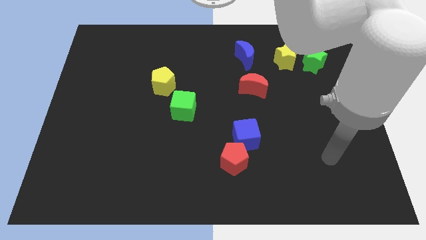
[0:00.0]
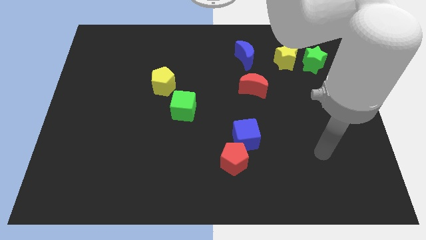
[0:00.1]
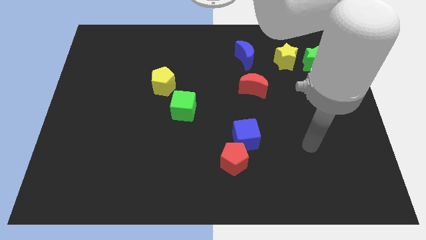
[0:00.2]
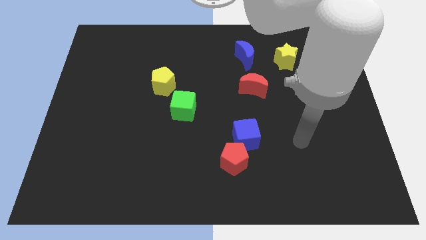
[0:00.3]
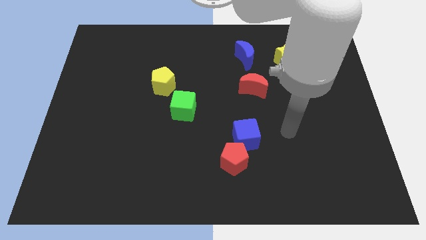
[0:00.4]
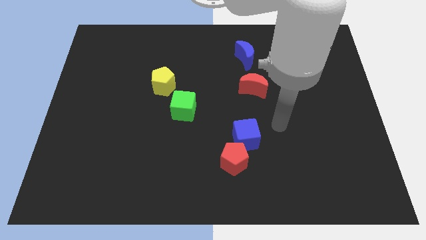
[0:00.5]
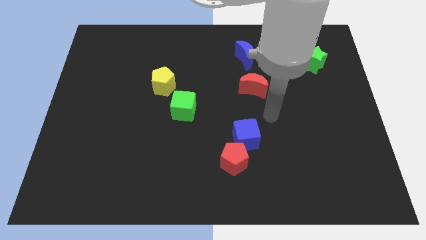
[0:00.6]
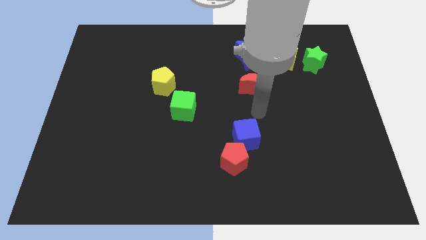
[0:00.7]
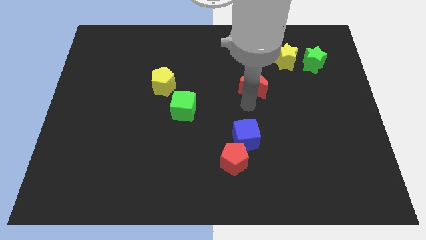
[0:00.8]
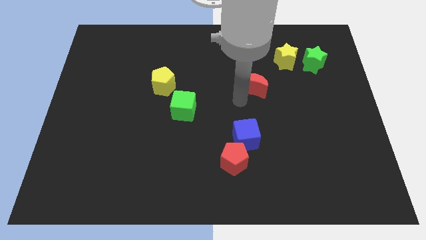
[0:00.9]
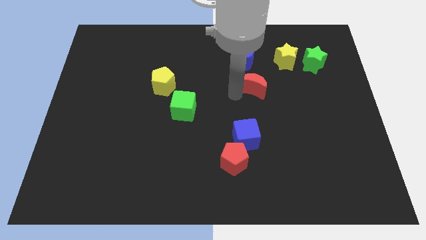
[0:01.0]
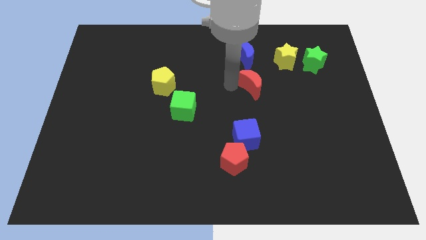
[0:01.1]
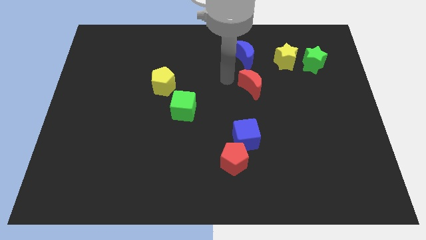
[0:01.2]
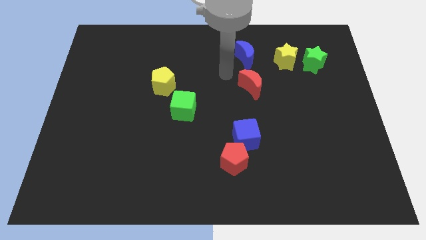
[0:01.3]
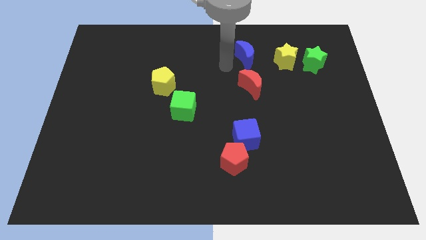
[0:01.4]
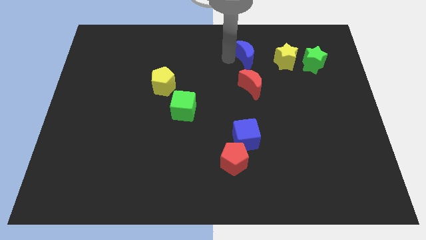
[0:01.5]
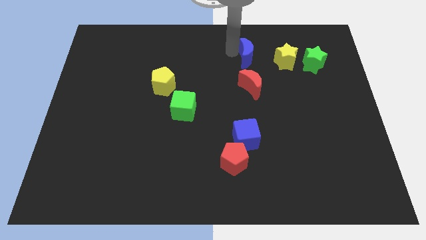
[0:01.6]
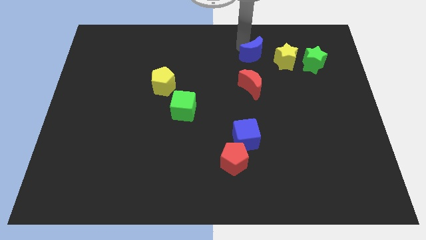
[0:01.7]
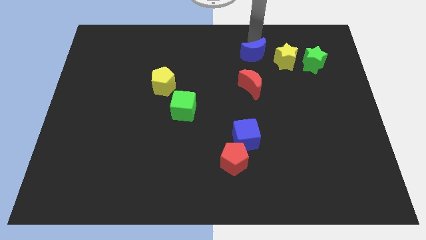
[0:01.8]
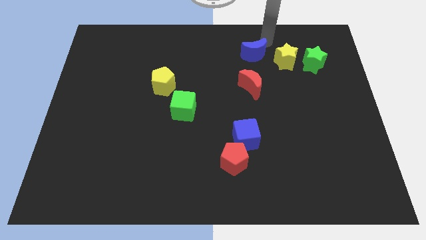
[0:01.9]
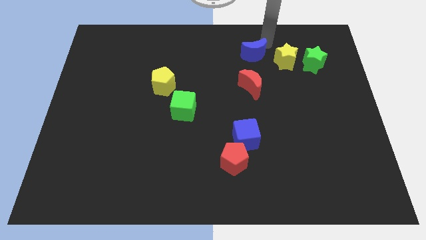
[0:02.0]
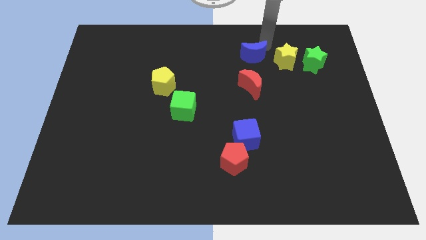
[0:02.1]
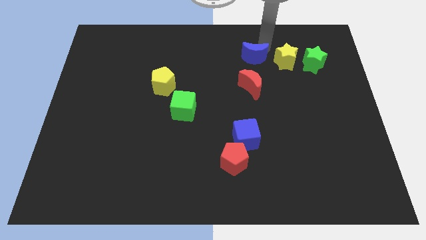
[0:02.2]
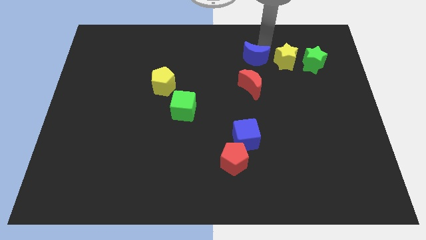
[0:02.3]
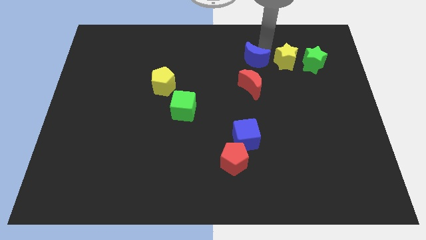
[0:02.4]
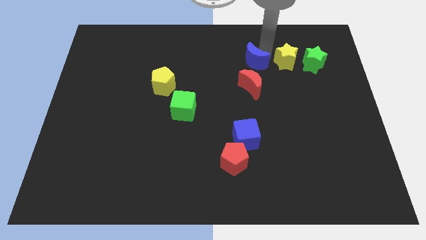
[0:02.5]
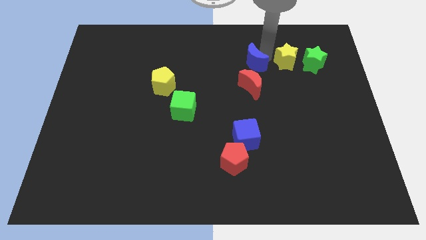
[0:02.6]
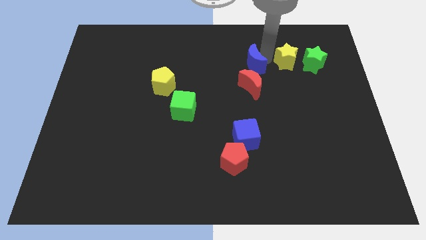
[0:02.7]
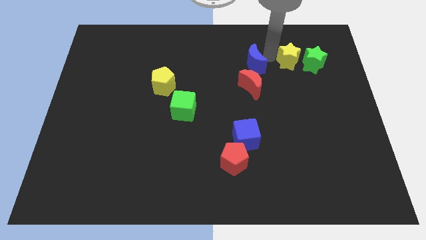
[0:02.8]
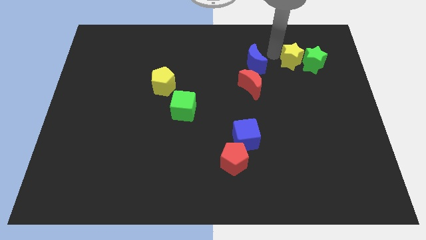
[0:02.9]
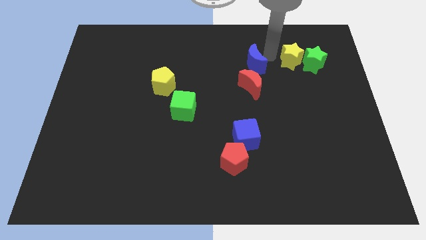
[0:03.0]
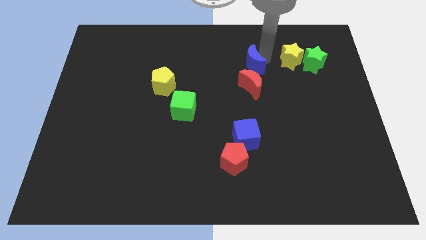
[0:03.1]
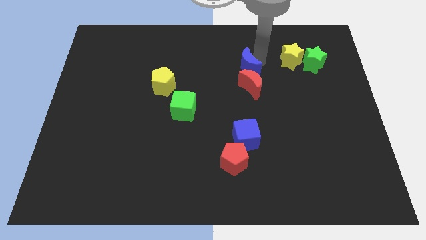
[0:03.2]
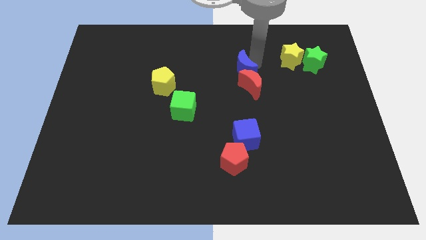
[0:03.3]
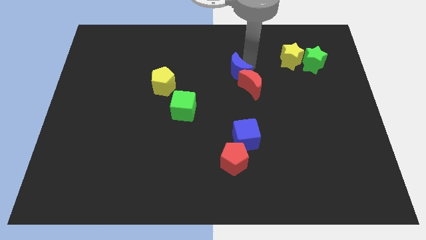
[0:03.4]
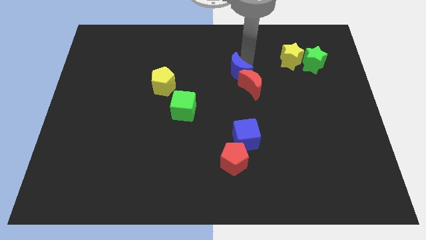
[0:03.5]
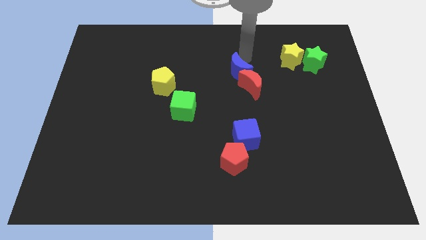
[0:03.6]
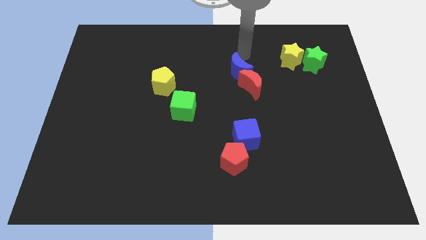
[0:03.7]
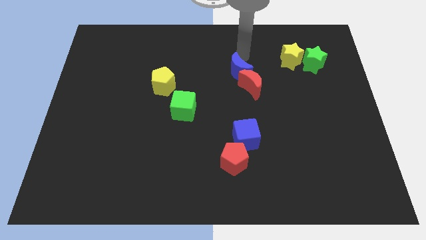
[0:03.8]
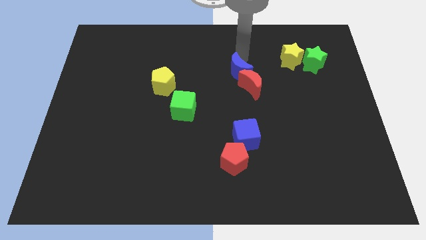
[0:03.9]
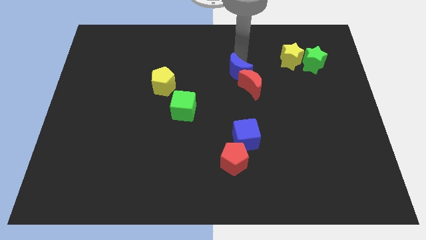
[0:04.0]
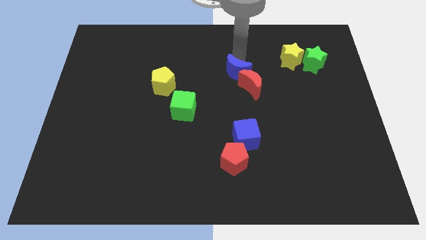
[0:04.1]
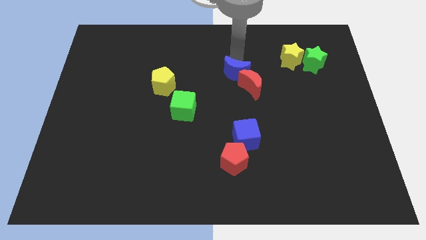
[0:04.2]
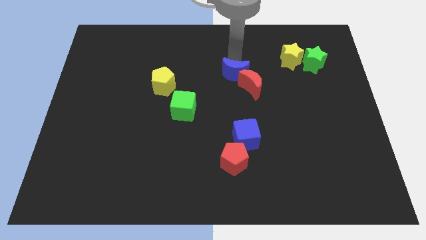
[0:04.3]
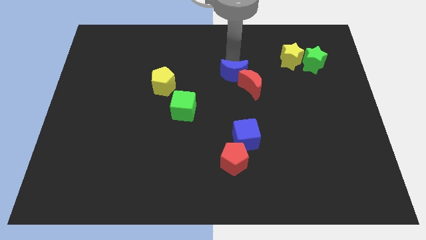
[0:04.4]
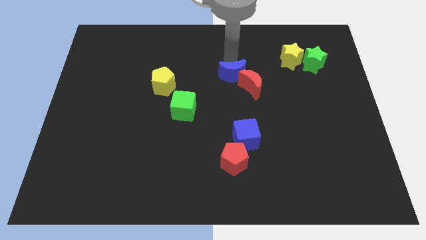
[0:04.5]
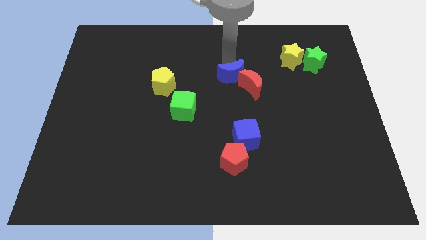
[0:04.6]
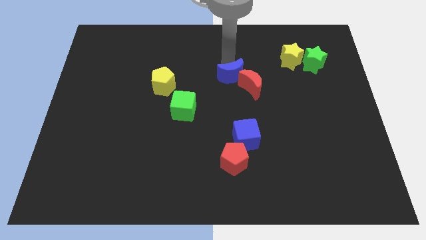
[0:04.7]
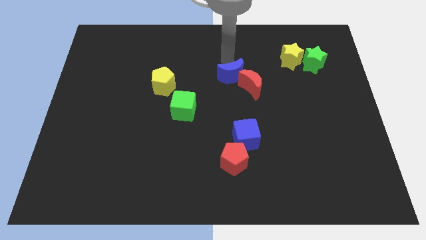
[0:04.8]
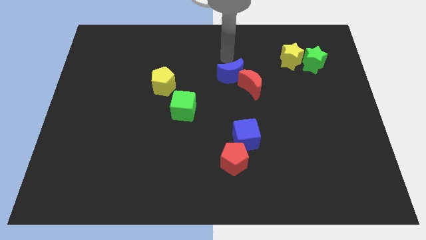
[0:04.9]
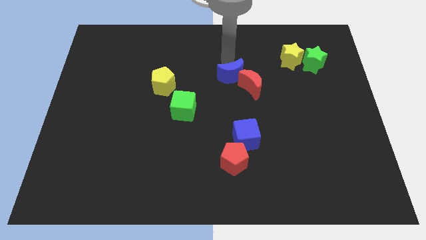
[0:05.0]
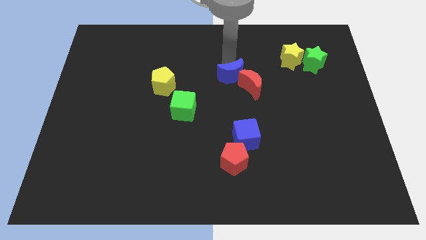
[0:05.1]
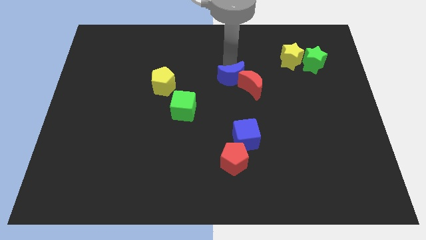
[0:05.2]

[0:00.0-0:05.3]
move the blue moon a bit down

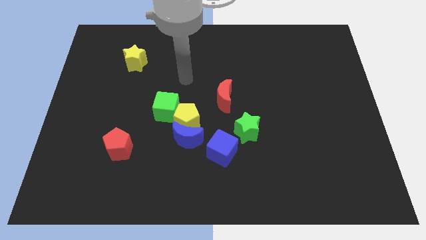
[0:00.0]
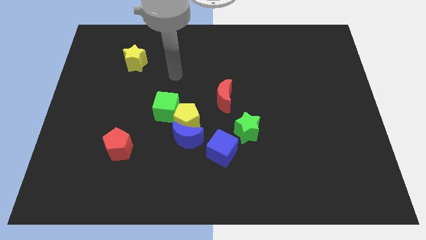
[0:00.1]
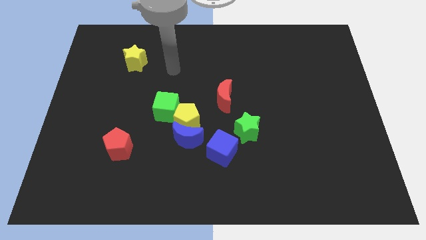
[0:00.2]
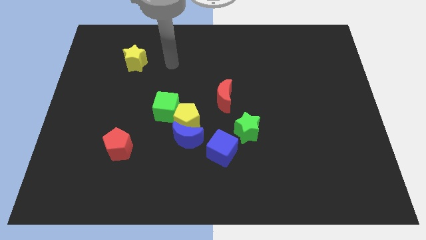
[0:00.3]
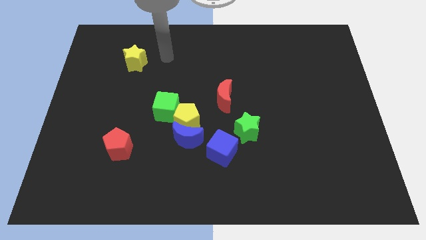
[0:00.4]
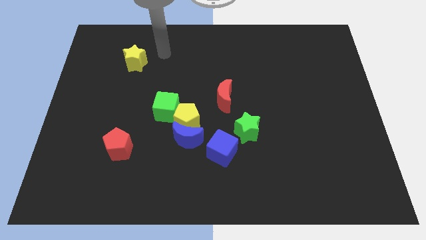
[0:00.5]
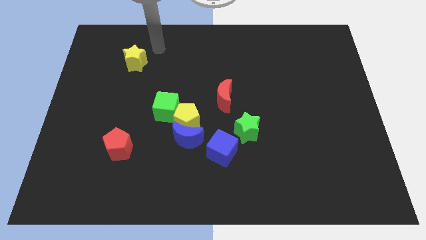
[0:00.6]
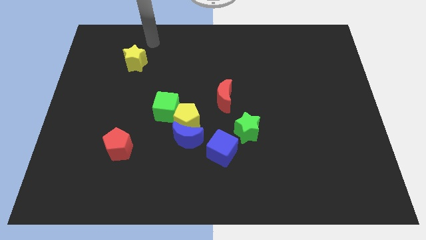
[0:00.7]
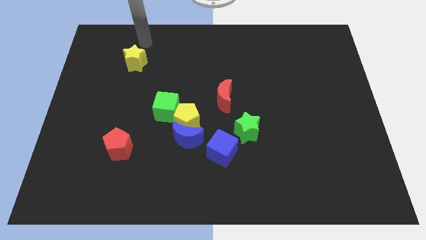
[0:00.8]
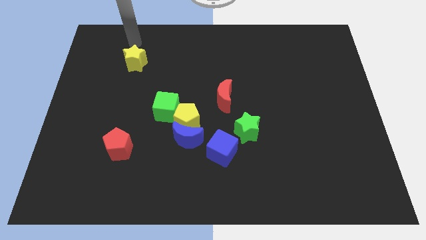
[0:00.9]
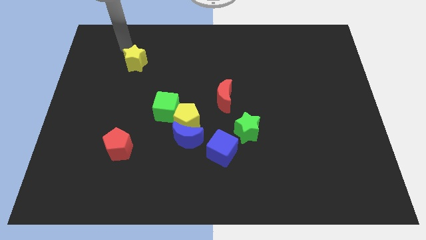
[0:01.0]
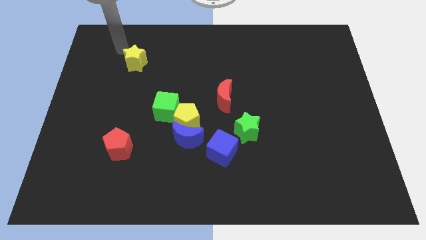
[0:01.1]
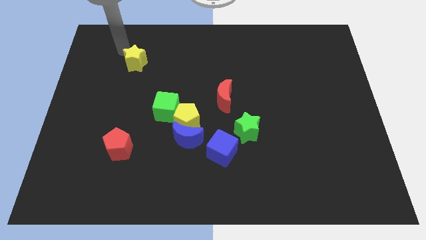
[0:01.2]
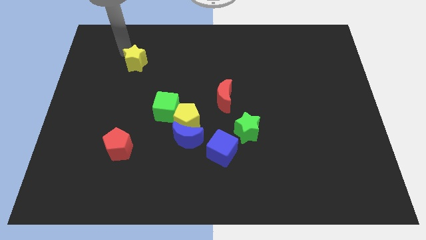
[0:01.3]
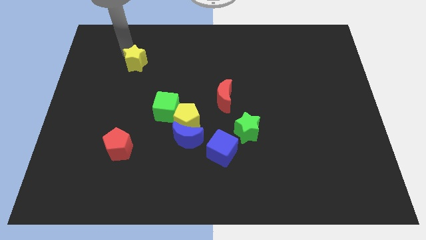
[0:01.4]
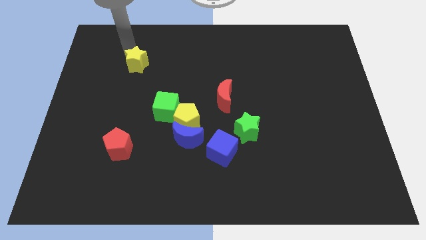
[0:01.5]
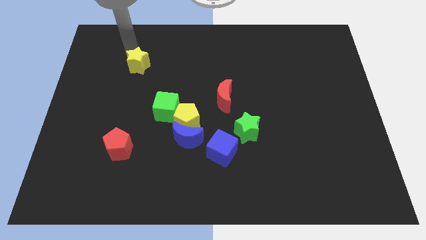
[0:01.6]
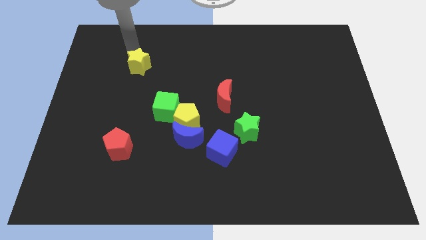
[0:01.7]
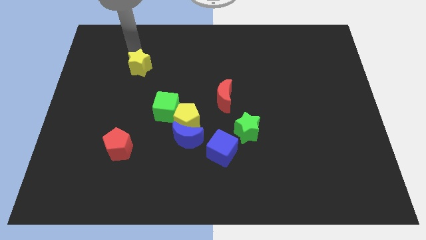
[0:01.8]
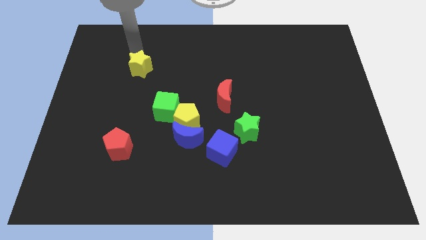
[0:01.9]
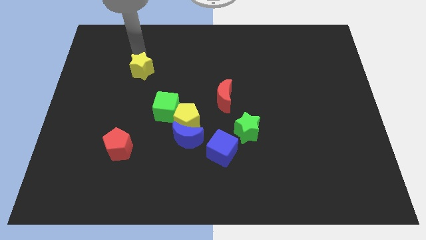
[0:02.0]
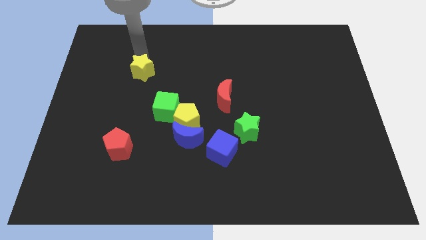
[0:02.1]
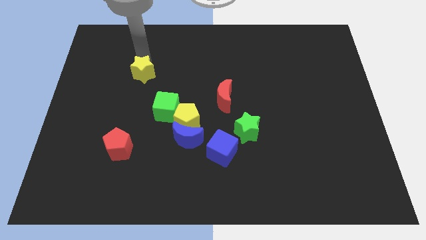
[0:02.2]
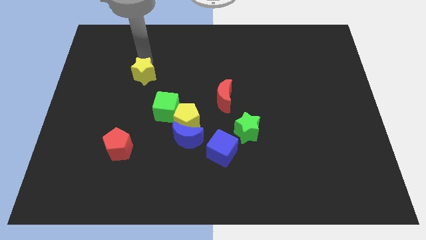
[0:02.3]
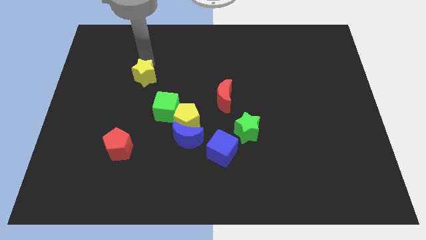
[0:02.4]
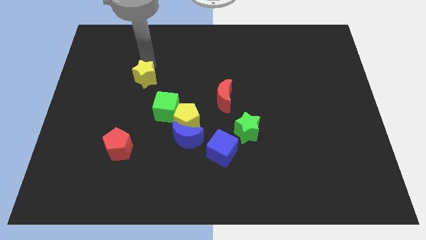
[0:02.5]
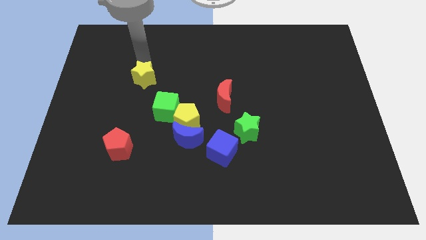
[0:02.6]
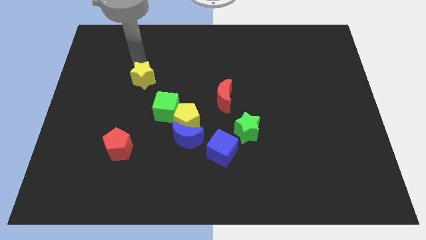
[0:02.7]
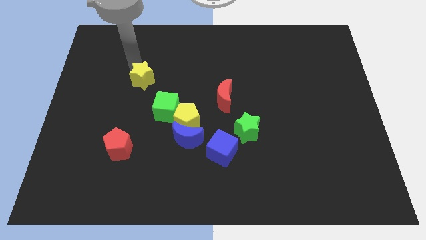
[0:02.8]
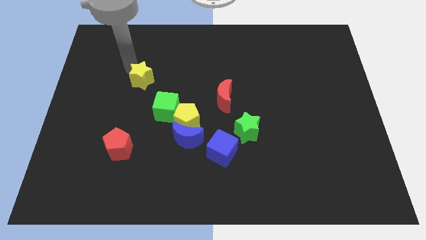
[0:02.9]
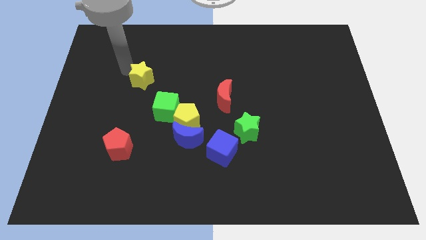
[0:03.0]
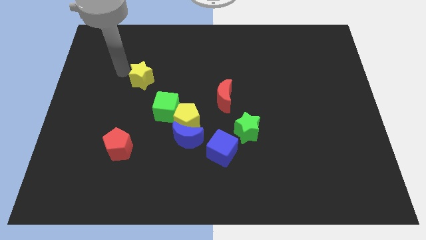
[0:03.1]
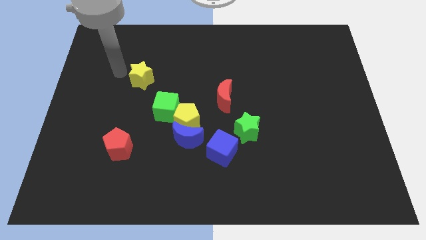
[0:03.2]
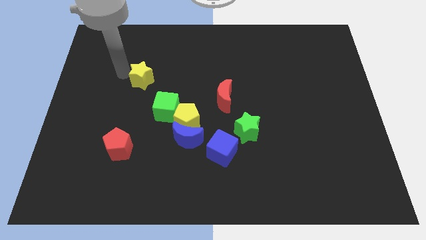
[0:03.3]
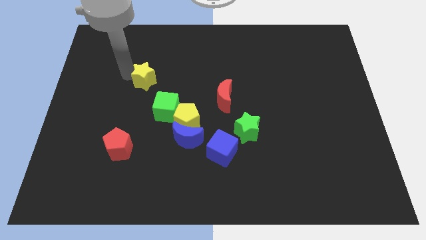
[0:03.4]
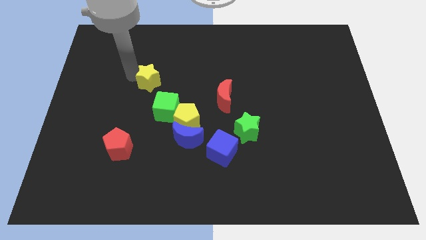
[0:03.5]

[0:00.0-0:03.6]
slide the yellow star downwards and right diagonally somewhat
